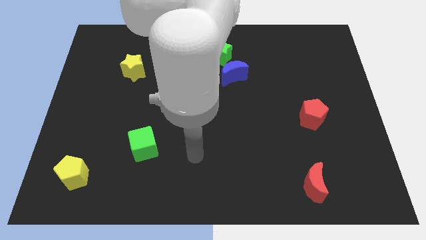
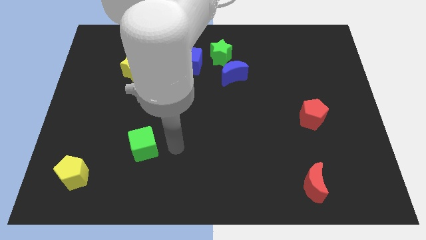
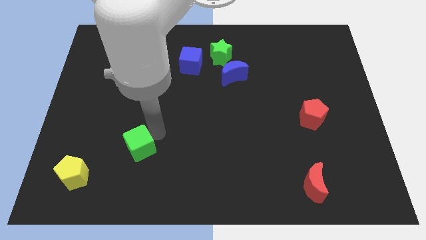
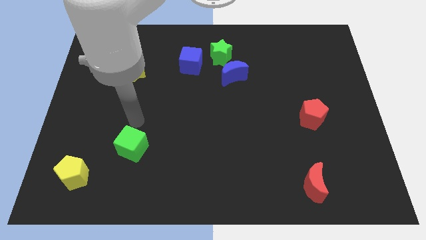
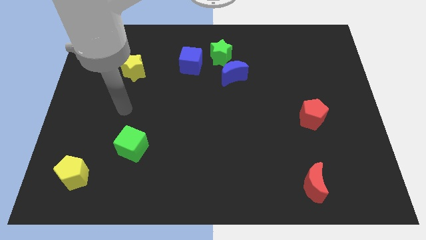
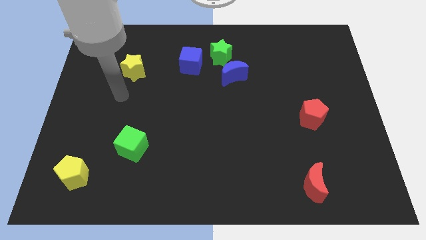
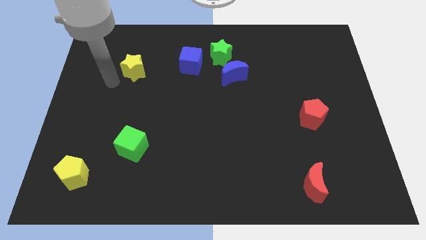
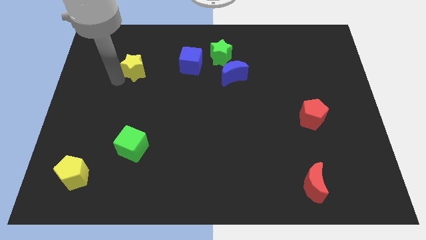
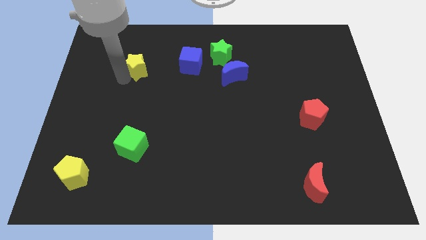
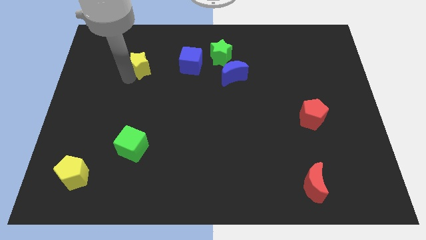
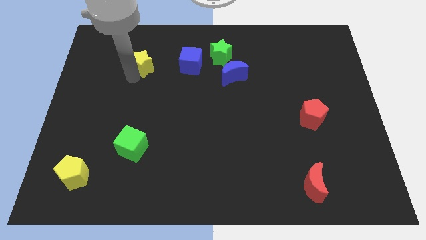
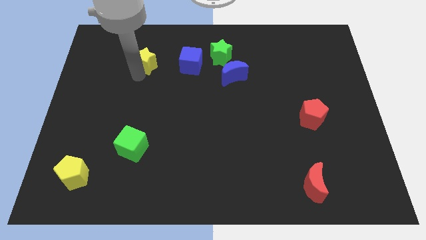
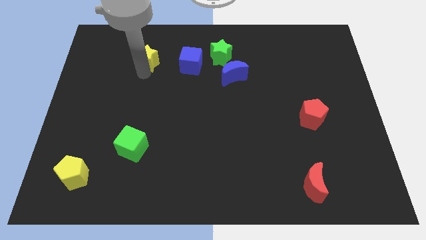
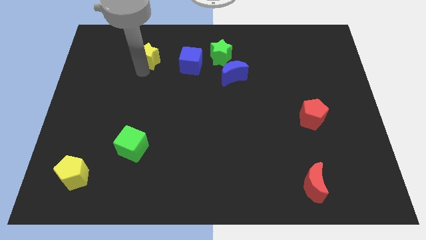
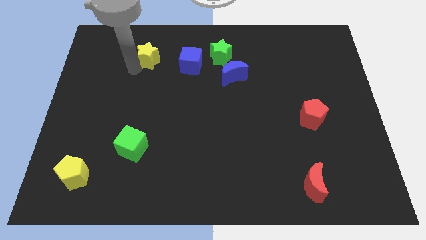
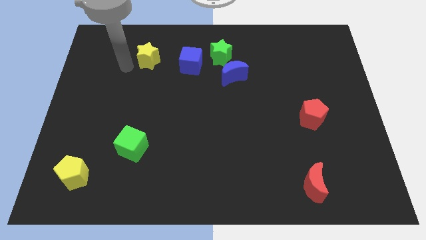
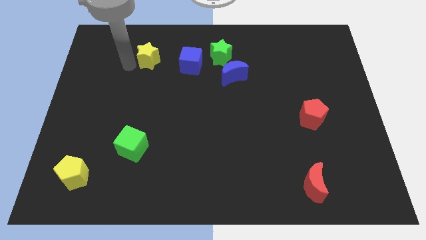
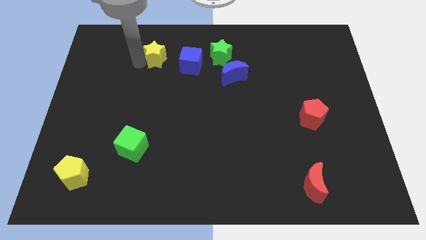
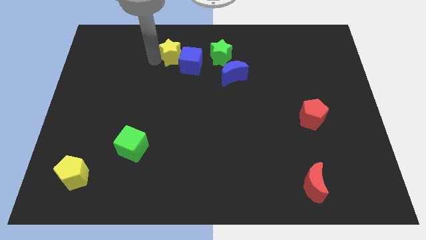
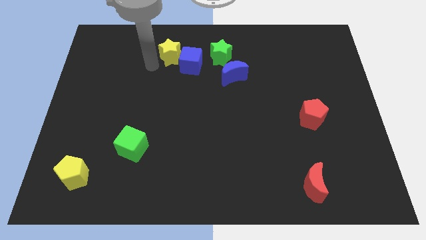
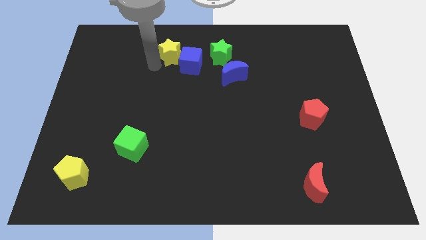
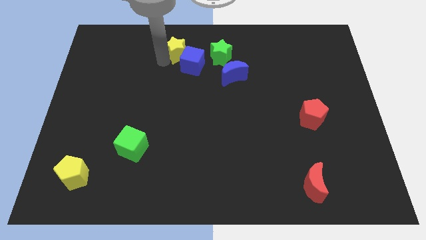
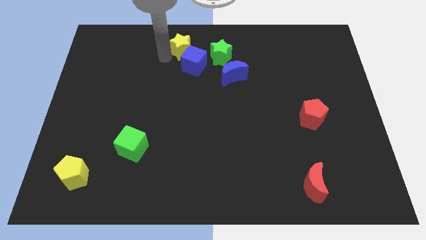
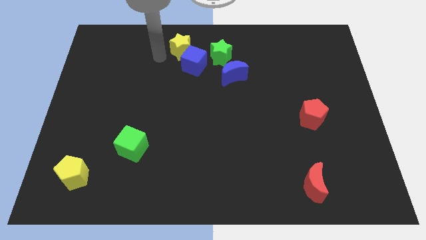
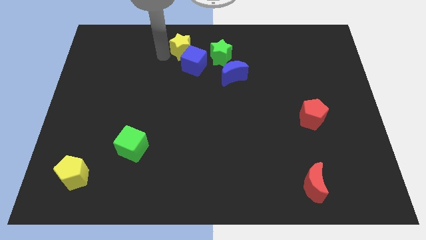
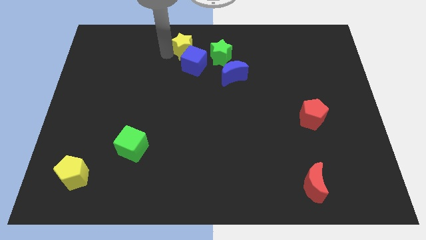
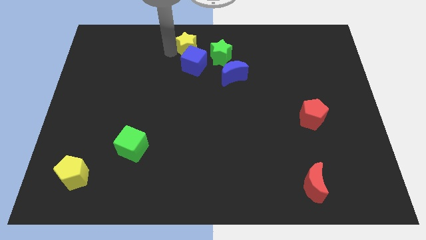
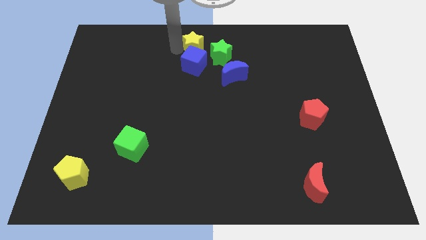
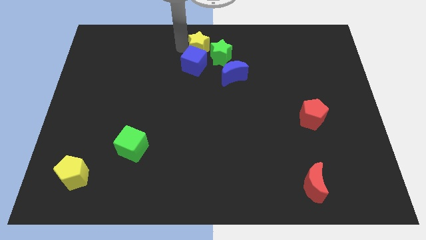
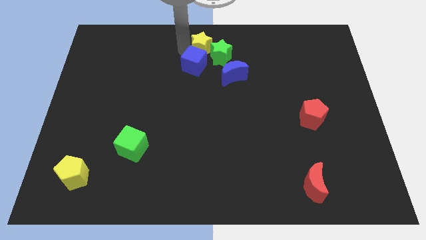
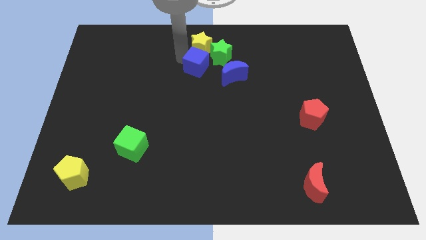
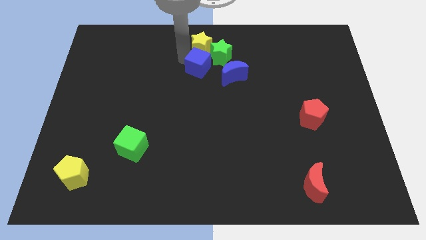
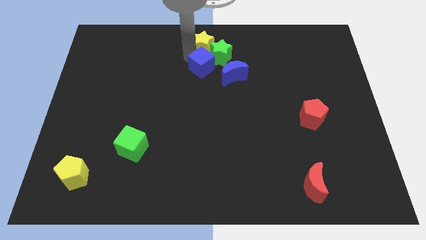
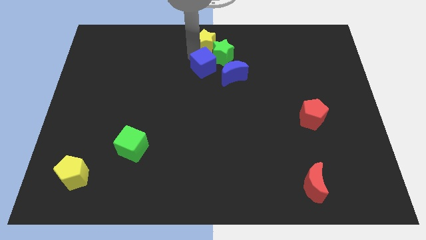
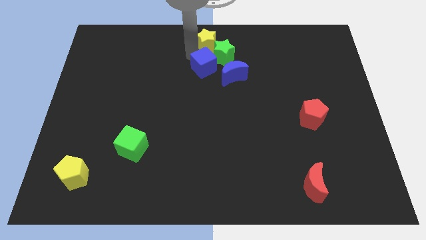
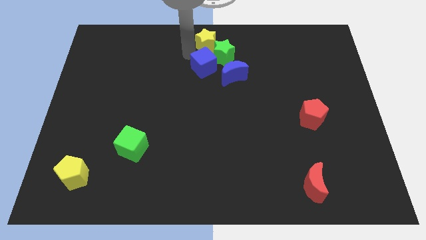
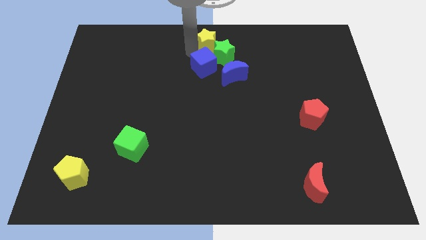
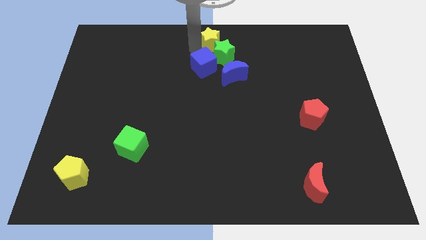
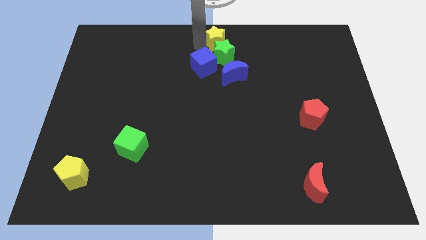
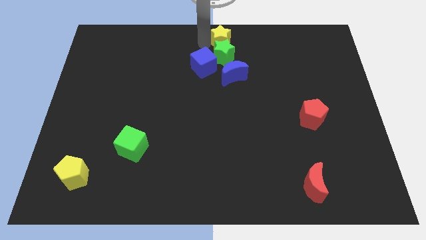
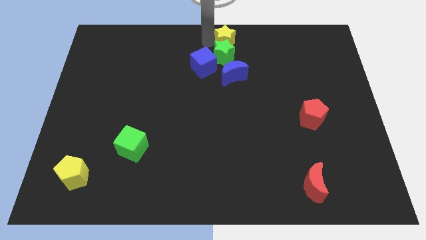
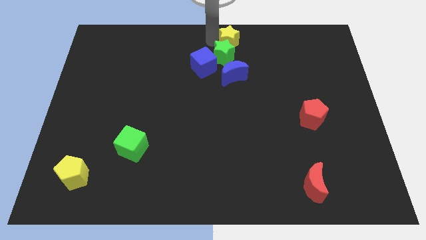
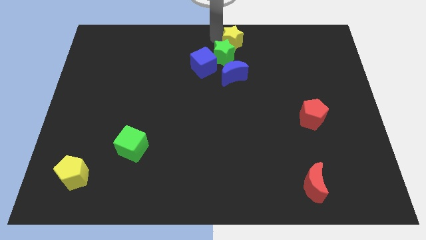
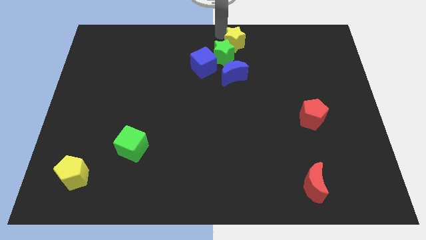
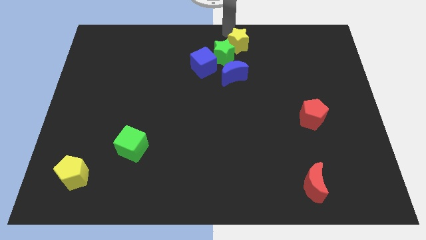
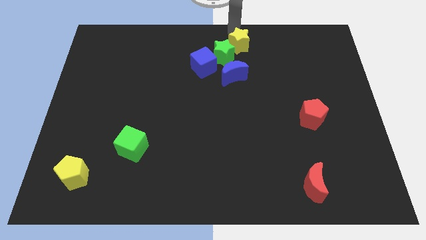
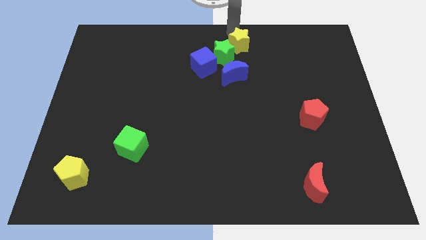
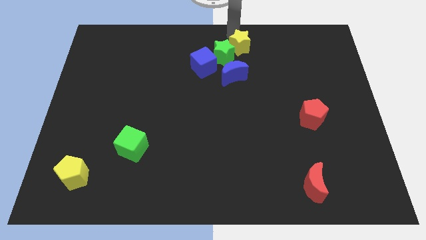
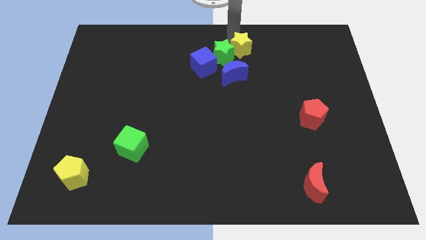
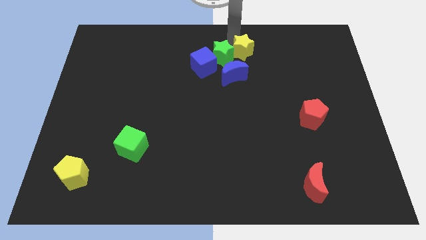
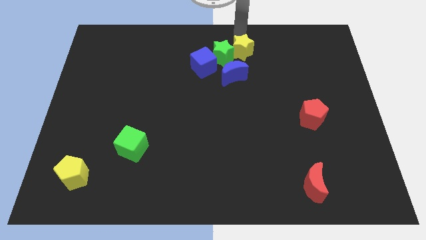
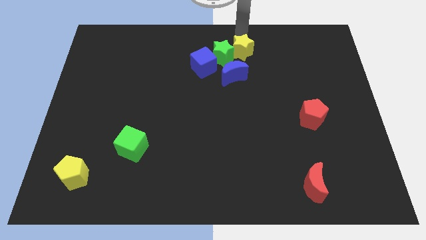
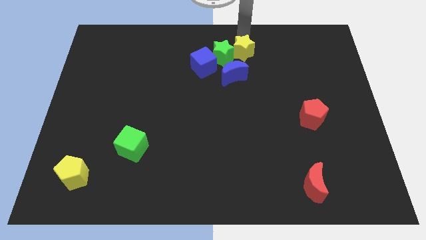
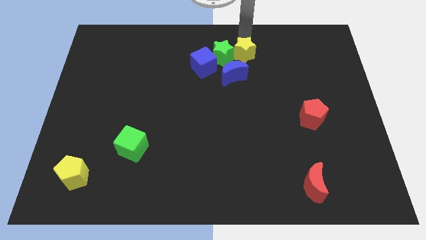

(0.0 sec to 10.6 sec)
push the yellow star right of the blue cube

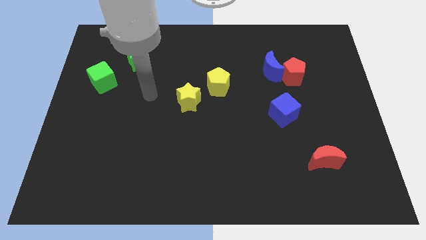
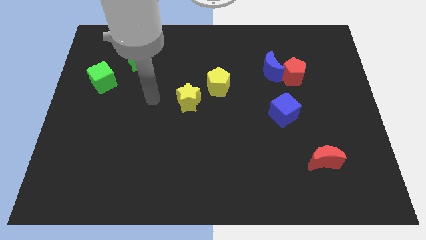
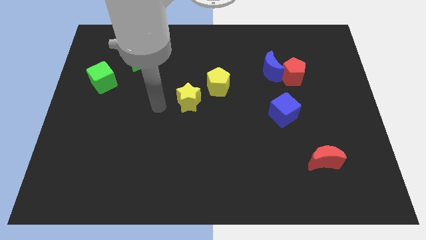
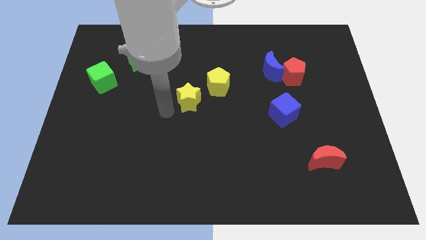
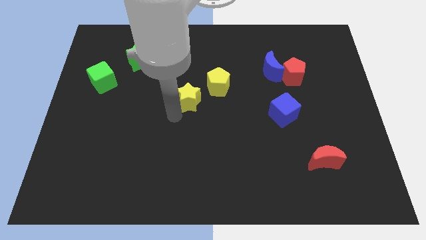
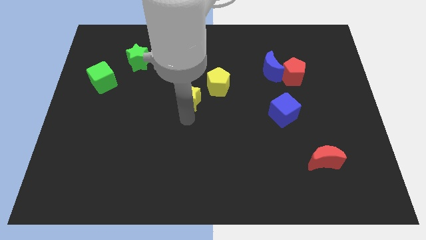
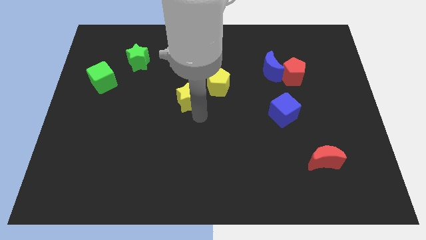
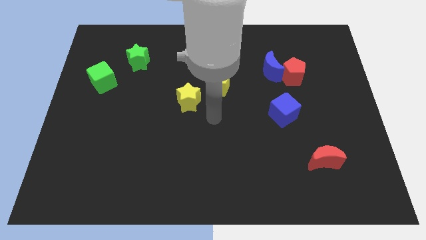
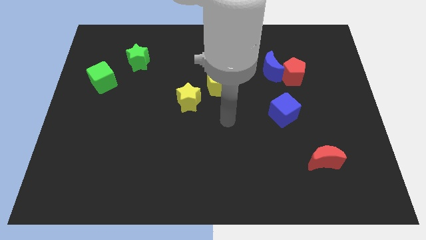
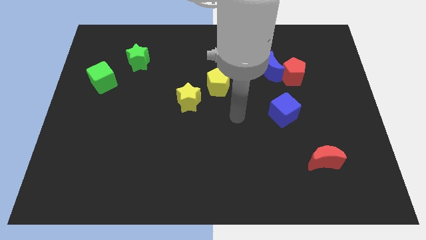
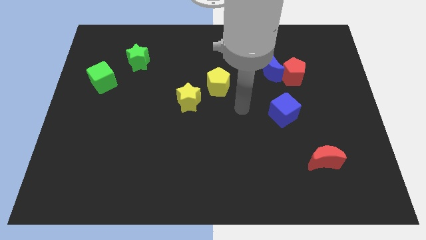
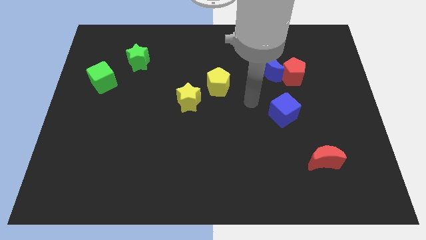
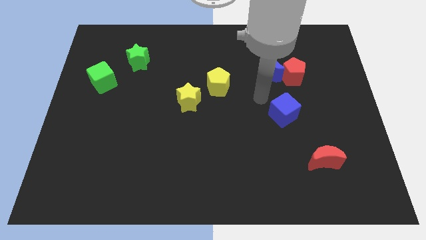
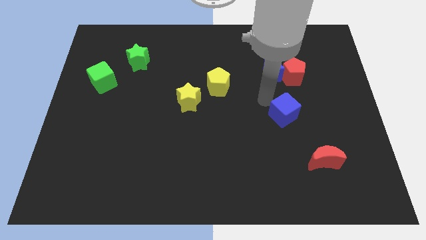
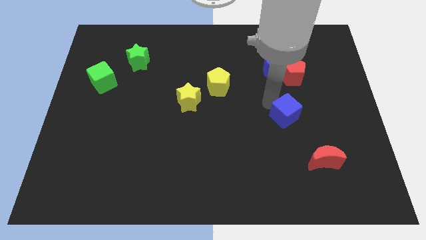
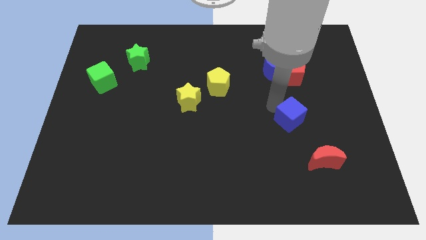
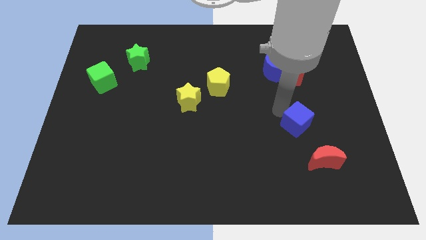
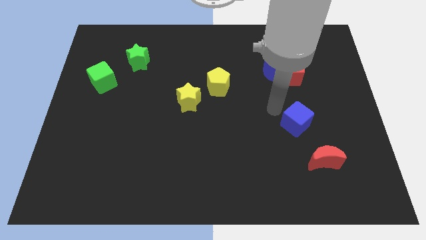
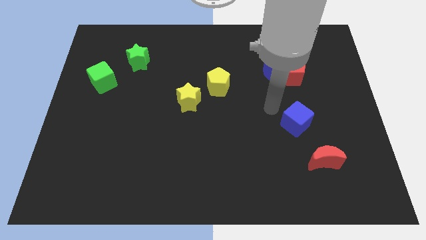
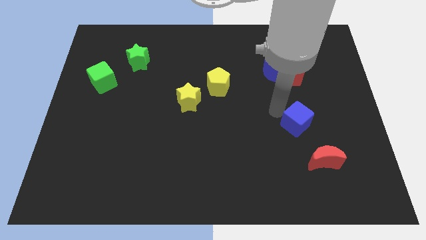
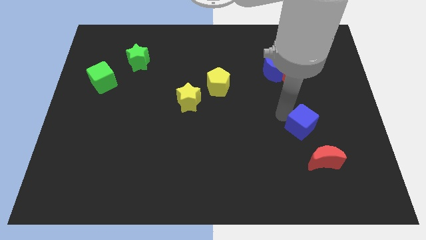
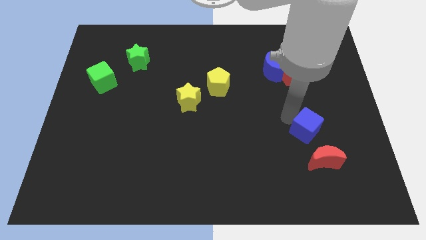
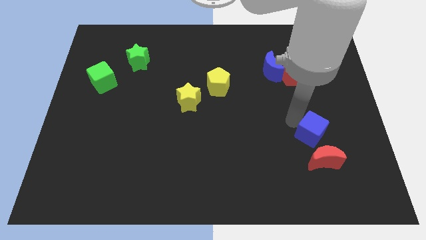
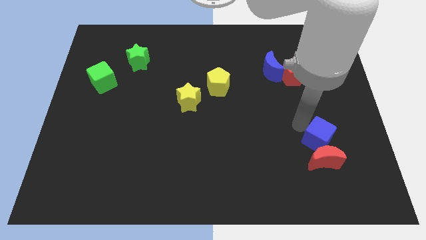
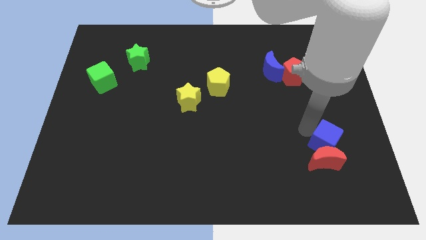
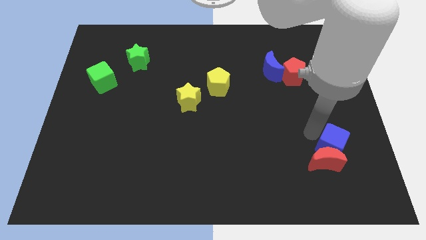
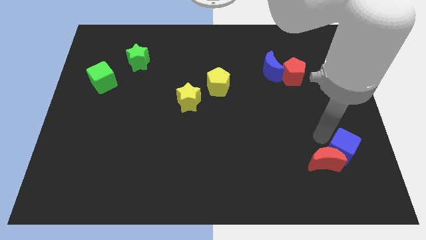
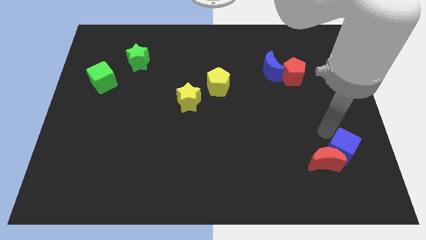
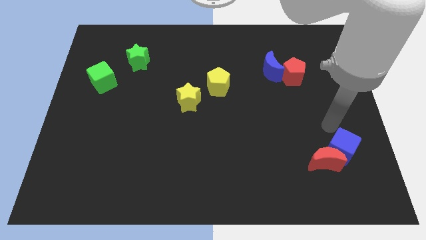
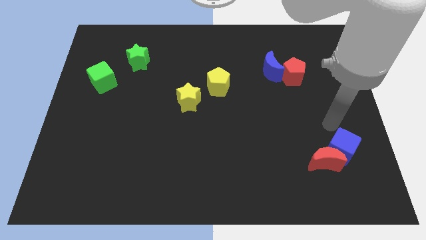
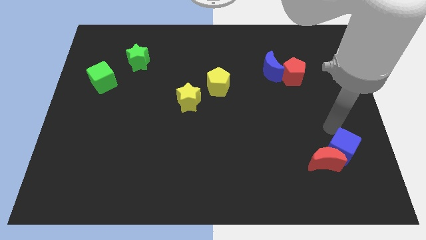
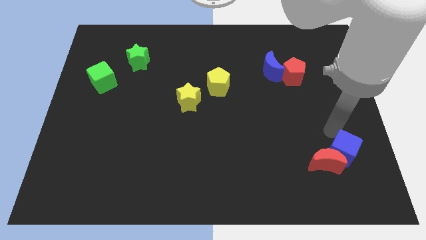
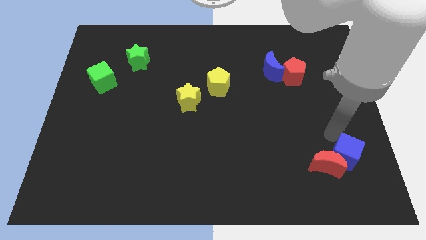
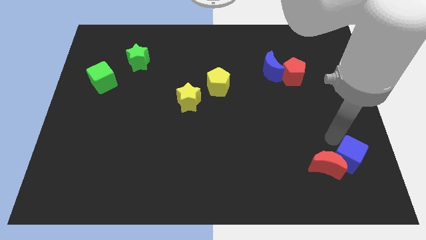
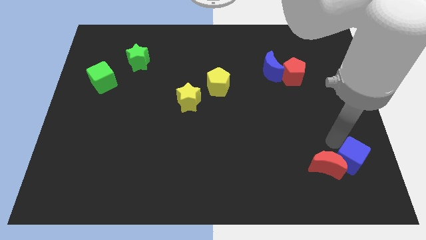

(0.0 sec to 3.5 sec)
push the blue cube diagonally down and to the right of the red moon
